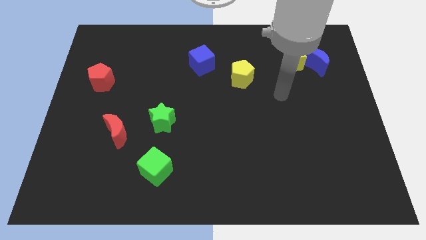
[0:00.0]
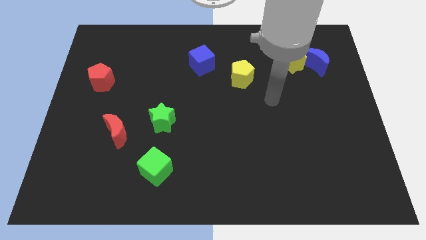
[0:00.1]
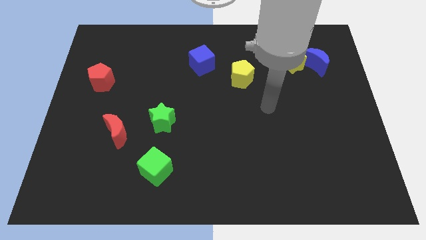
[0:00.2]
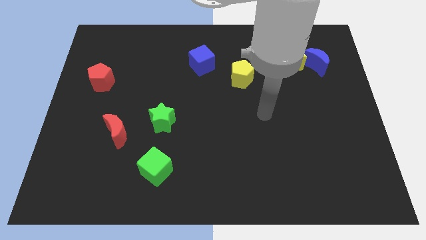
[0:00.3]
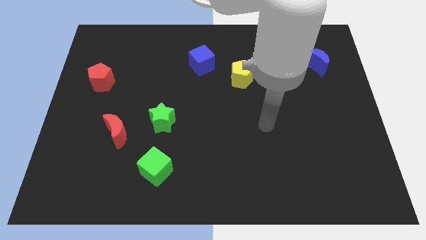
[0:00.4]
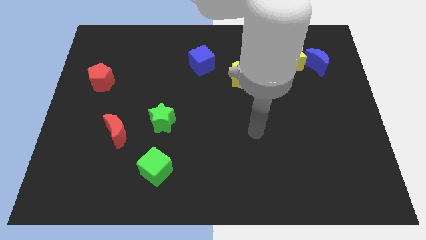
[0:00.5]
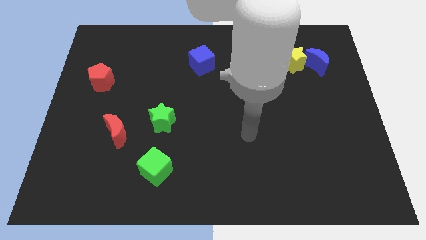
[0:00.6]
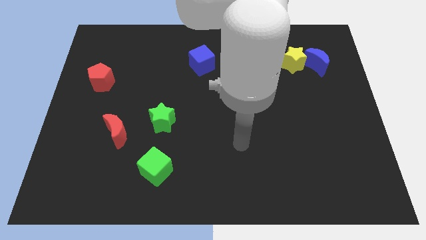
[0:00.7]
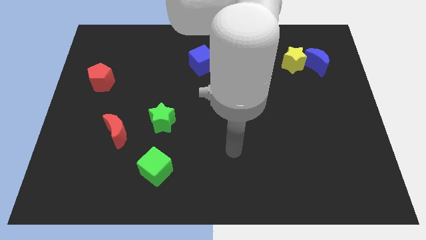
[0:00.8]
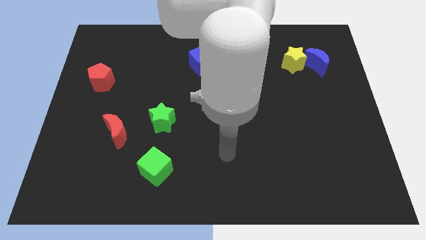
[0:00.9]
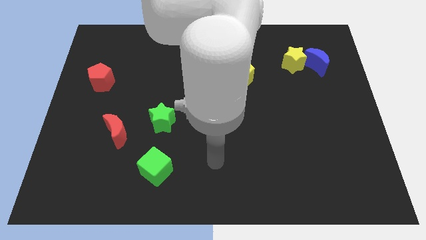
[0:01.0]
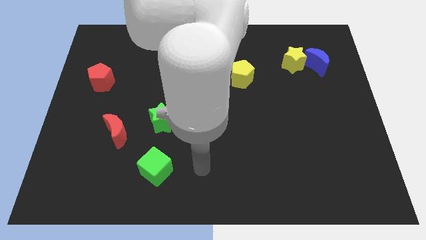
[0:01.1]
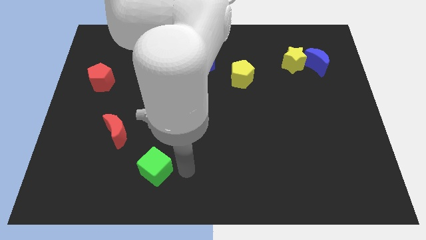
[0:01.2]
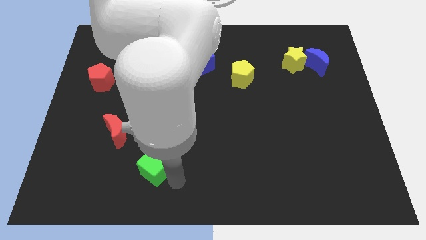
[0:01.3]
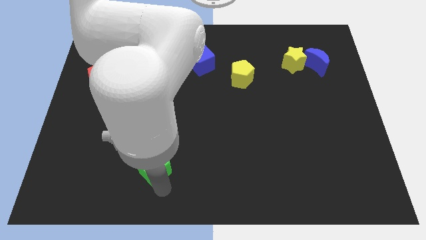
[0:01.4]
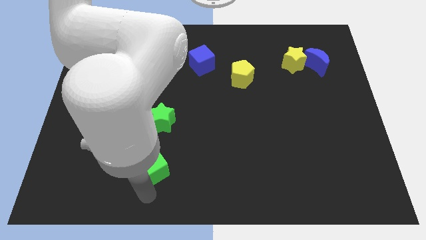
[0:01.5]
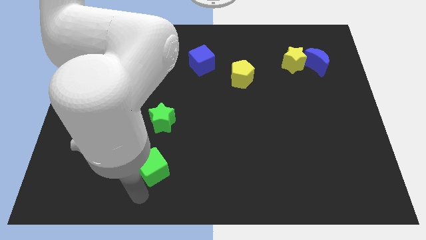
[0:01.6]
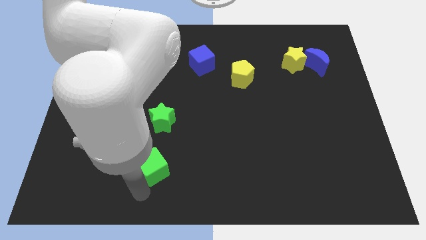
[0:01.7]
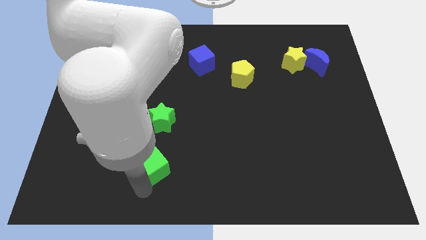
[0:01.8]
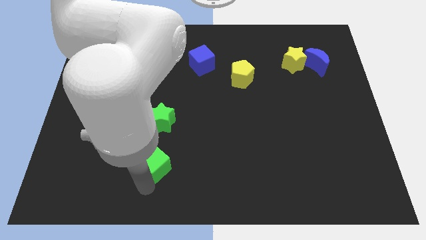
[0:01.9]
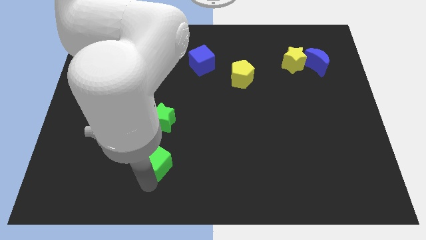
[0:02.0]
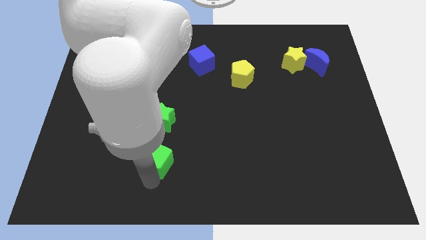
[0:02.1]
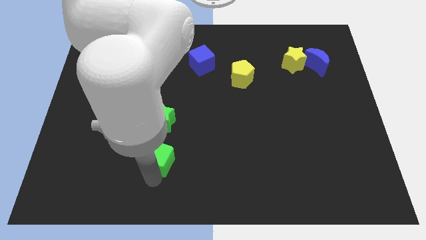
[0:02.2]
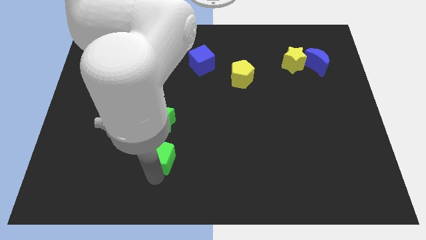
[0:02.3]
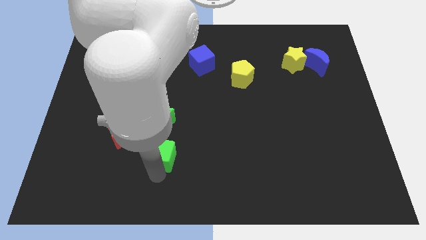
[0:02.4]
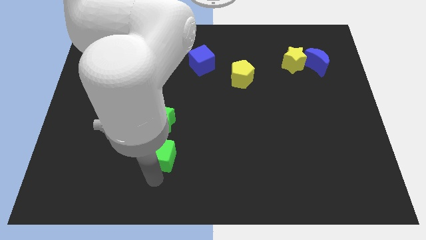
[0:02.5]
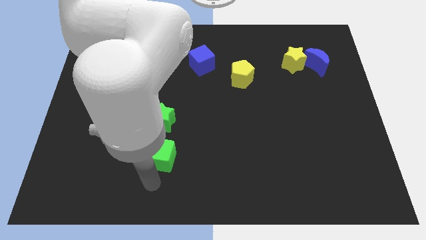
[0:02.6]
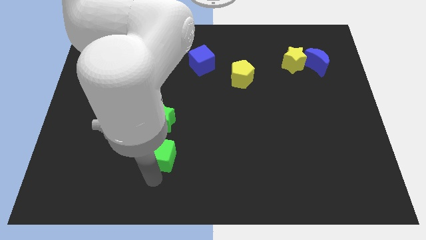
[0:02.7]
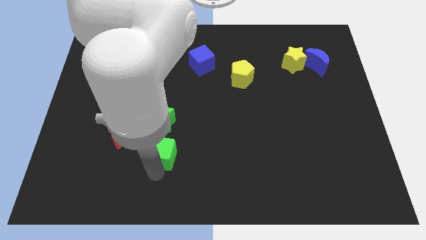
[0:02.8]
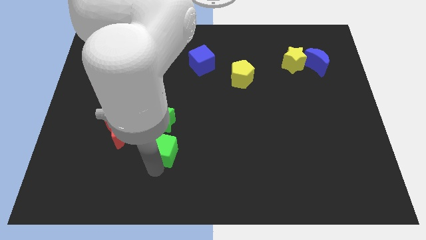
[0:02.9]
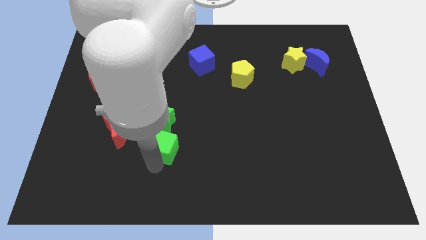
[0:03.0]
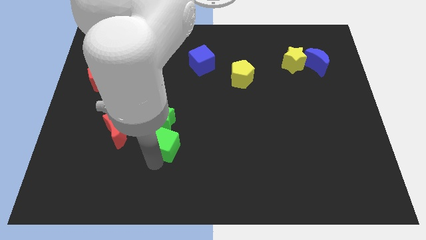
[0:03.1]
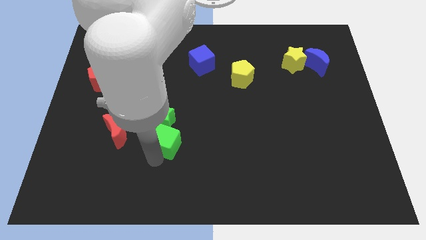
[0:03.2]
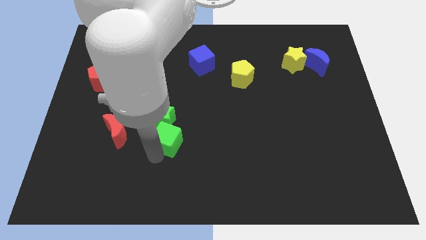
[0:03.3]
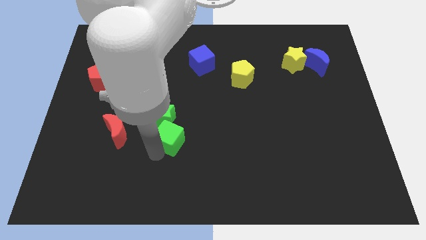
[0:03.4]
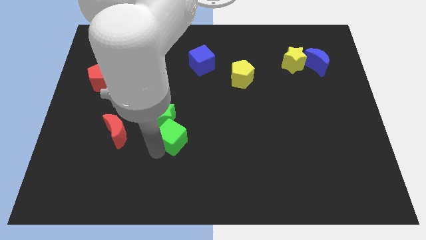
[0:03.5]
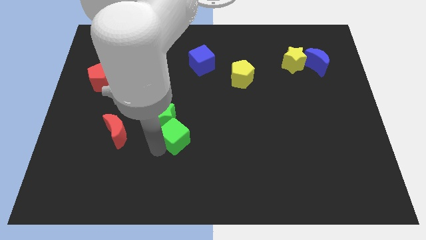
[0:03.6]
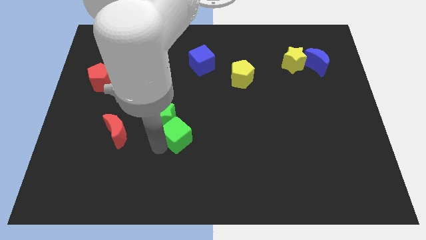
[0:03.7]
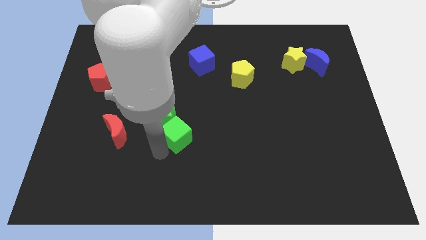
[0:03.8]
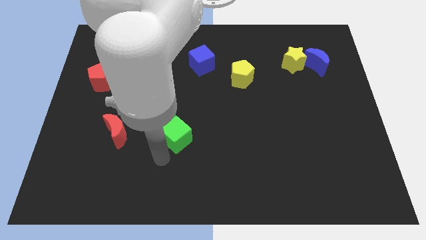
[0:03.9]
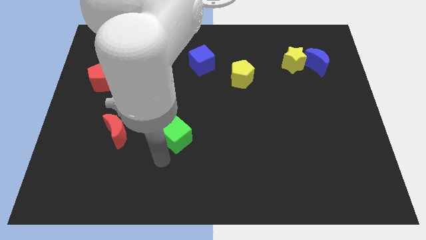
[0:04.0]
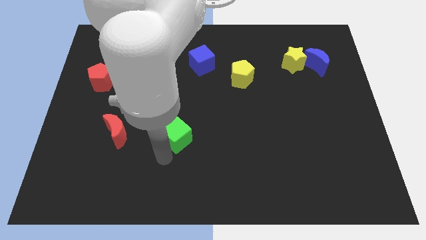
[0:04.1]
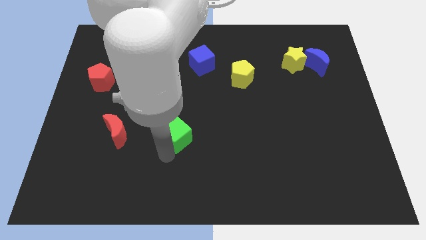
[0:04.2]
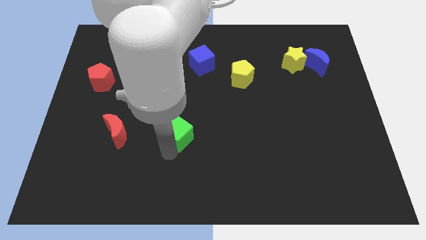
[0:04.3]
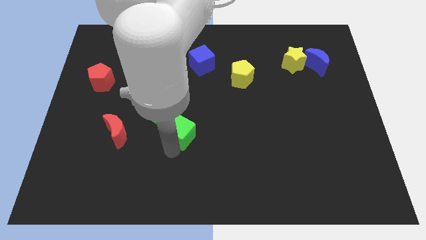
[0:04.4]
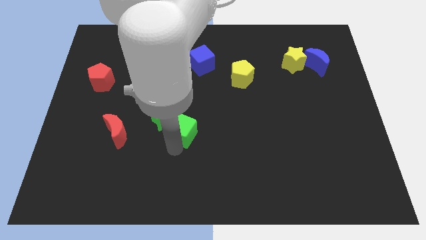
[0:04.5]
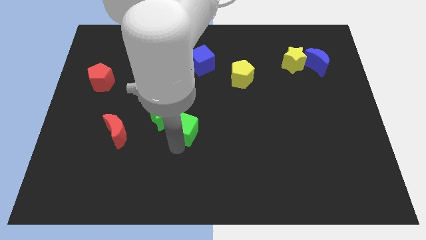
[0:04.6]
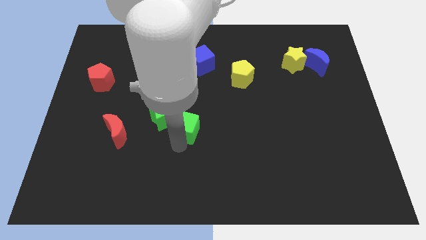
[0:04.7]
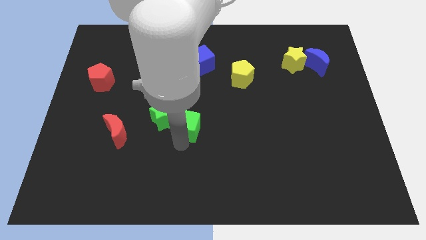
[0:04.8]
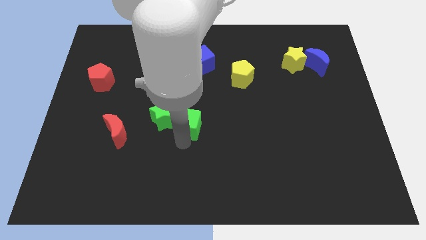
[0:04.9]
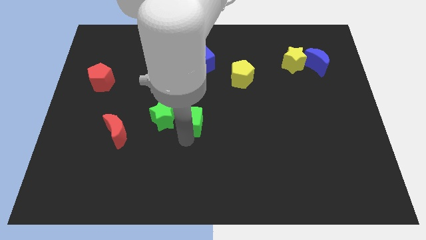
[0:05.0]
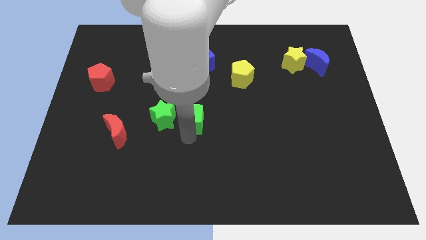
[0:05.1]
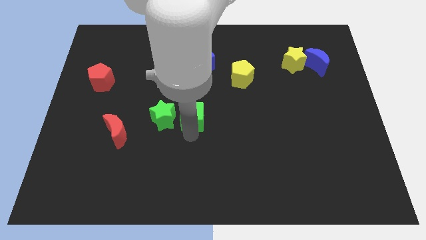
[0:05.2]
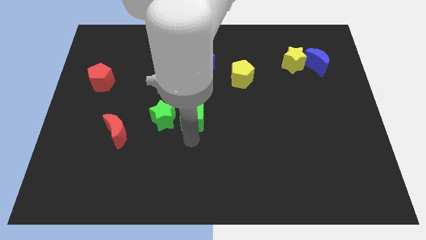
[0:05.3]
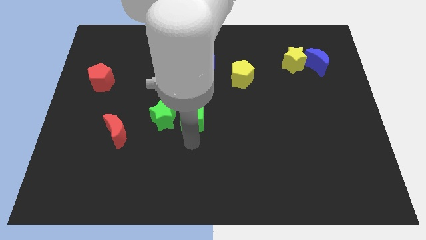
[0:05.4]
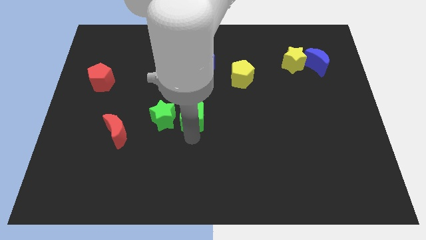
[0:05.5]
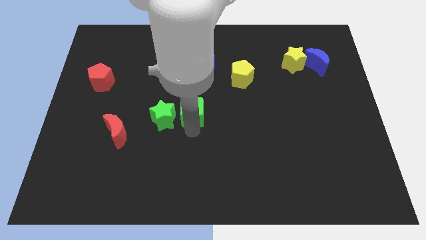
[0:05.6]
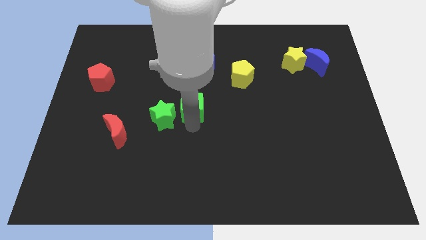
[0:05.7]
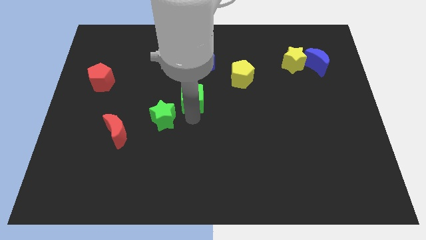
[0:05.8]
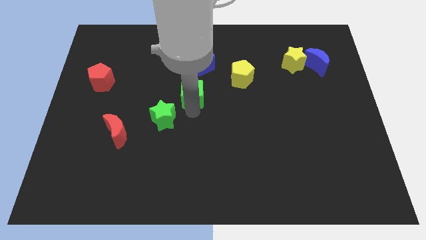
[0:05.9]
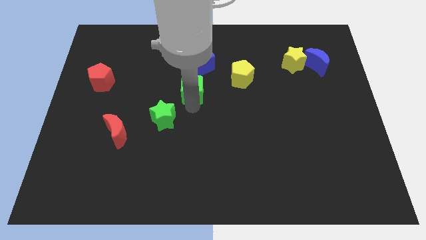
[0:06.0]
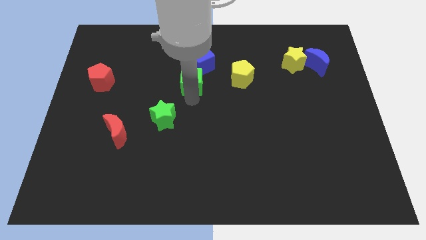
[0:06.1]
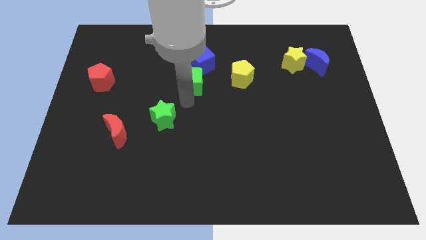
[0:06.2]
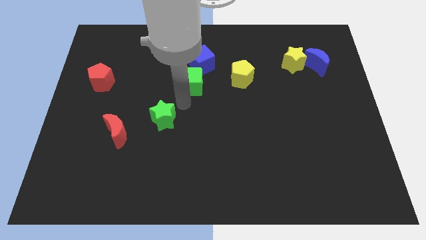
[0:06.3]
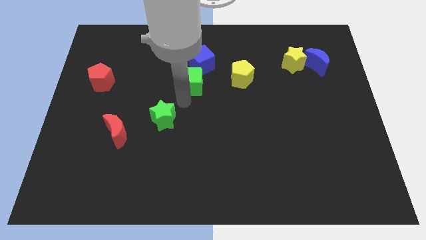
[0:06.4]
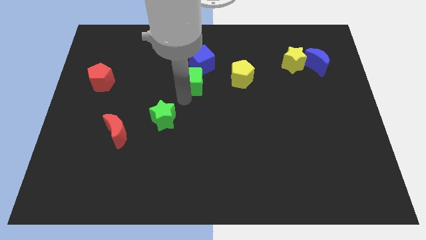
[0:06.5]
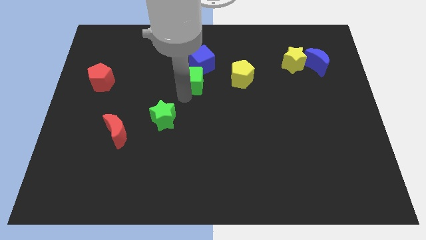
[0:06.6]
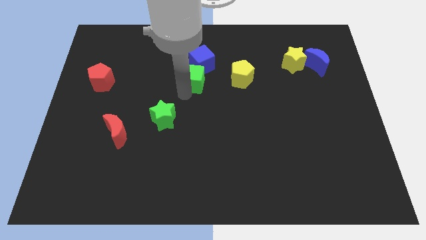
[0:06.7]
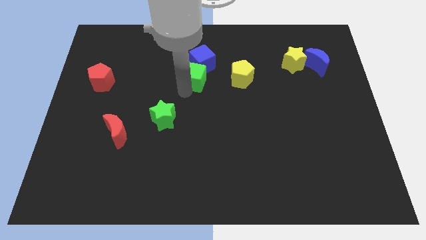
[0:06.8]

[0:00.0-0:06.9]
push the green cube next to the blue cube
